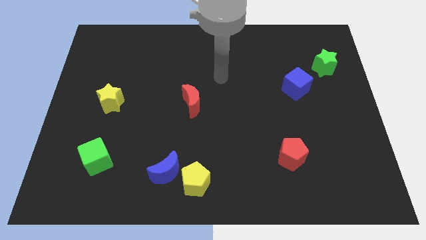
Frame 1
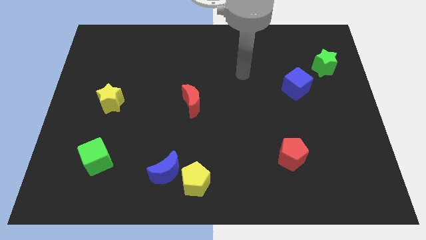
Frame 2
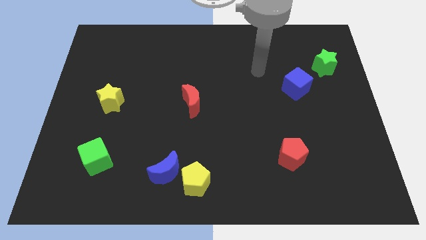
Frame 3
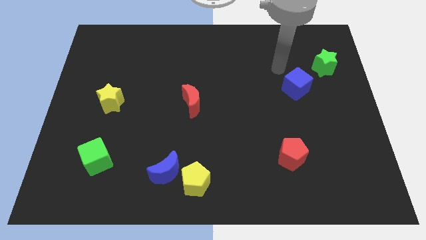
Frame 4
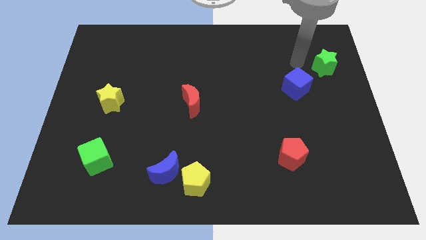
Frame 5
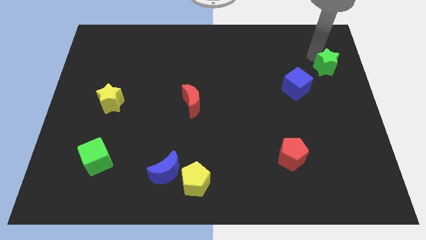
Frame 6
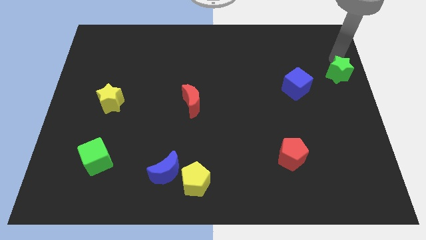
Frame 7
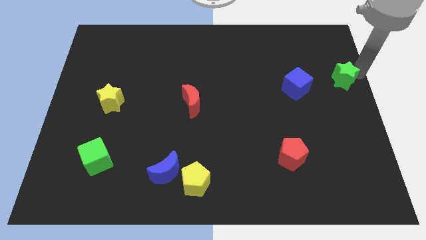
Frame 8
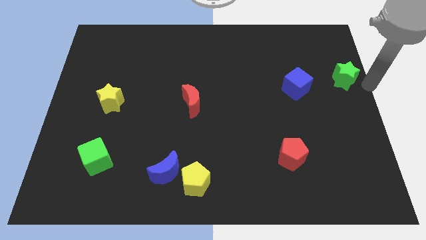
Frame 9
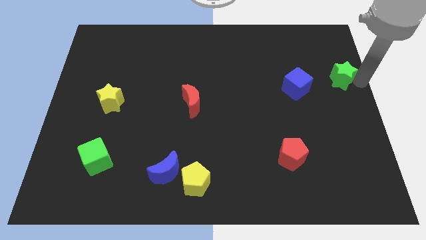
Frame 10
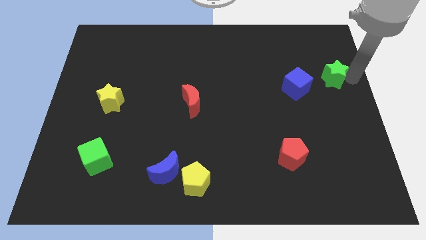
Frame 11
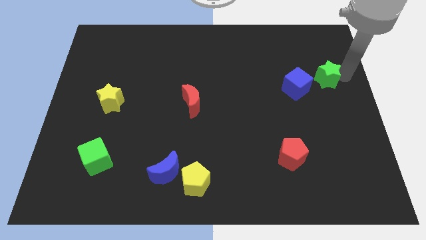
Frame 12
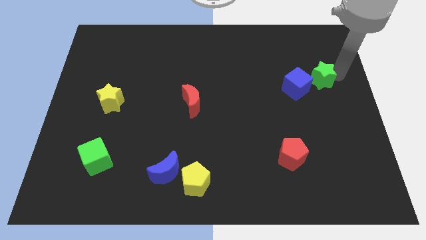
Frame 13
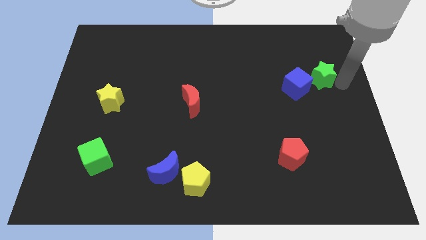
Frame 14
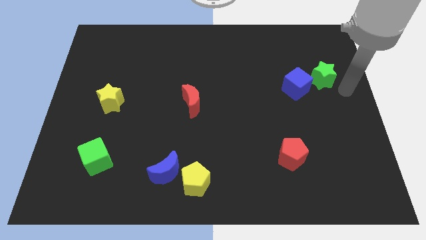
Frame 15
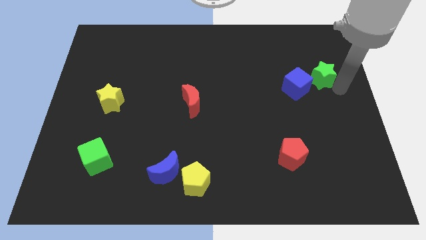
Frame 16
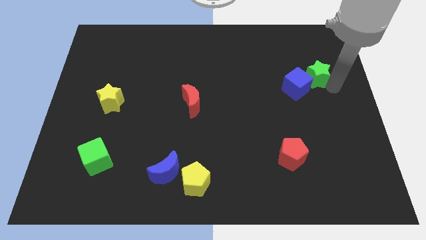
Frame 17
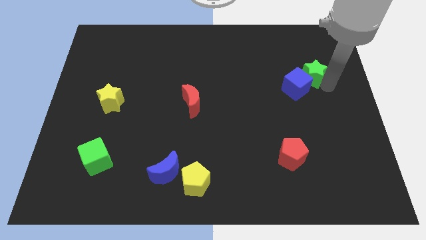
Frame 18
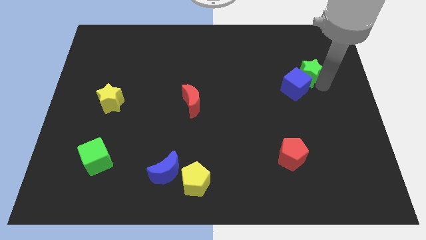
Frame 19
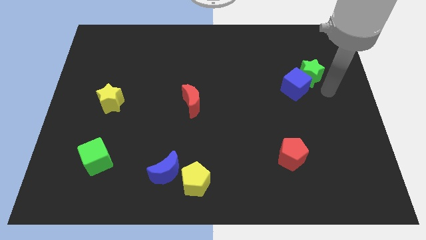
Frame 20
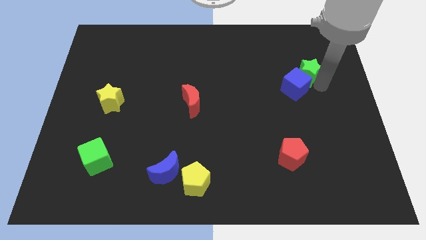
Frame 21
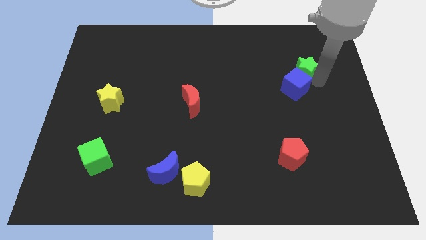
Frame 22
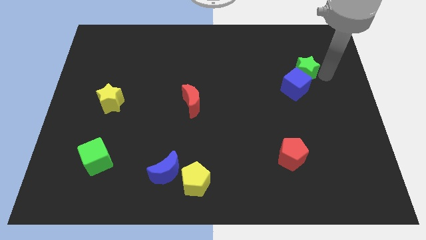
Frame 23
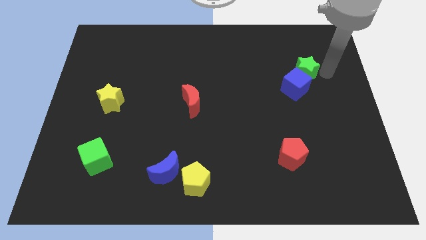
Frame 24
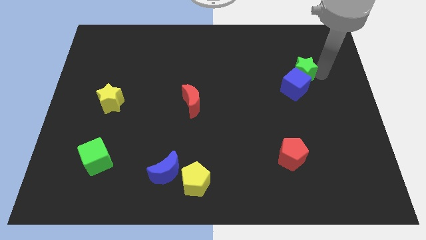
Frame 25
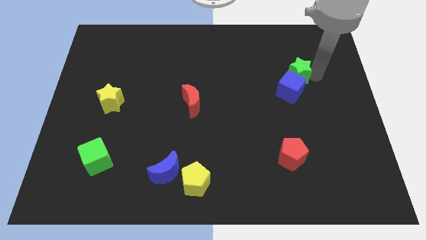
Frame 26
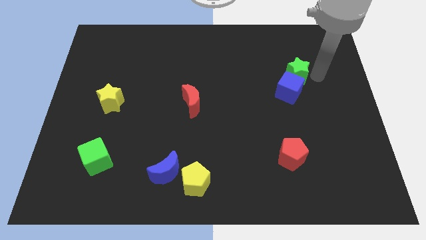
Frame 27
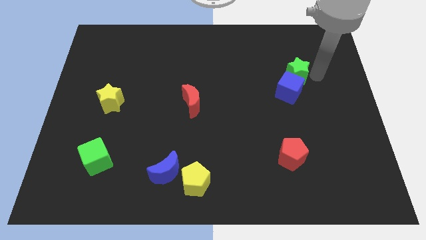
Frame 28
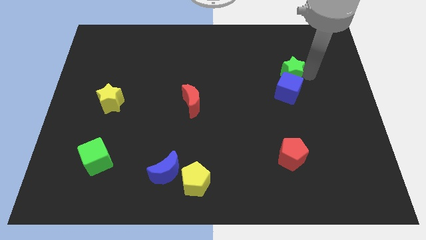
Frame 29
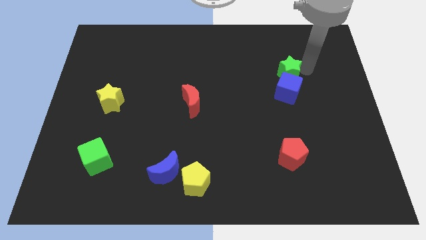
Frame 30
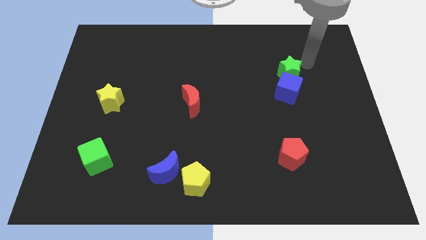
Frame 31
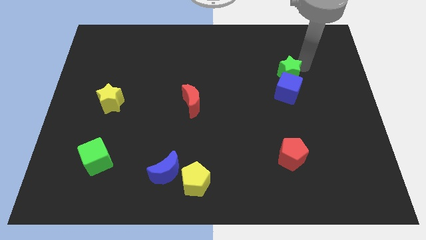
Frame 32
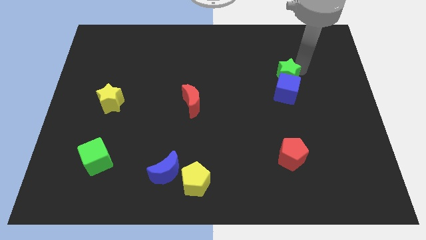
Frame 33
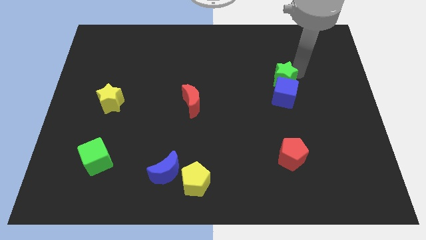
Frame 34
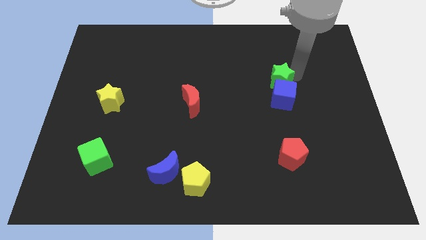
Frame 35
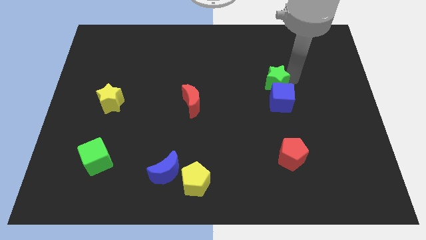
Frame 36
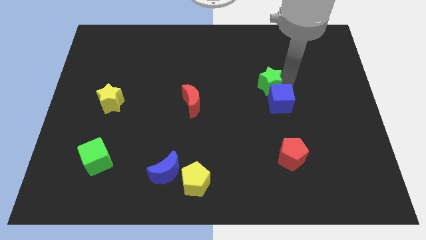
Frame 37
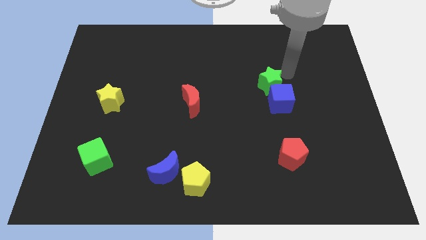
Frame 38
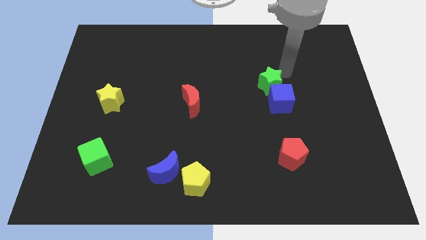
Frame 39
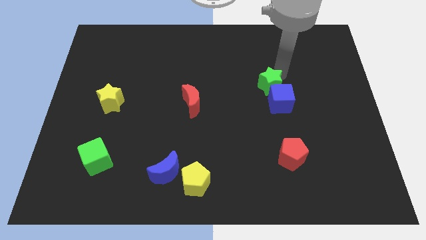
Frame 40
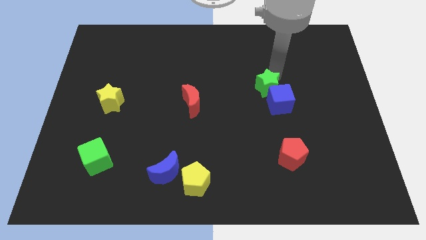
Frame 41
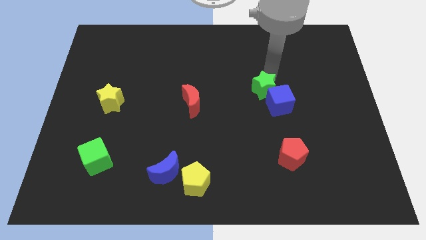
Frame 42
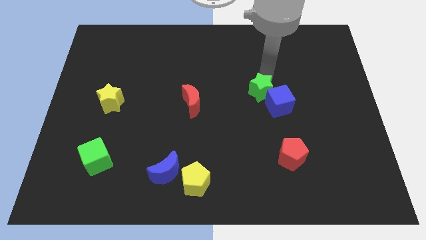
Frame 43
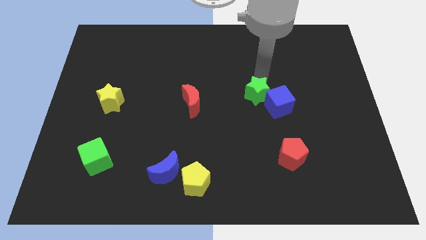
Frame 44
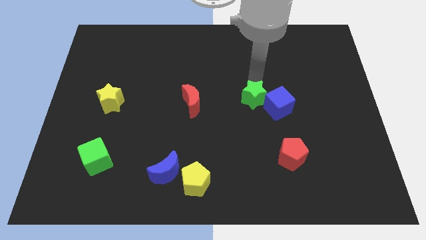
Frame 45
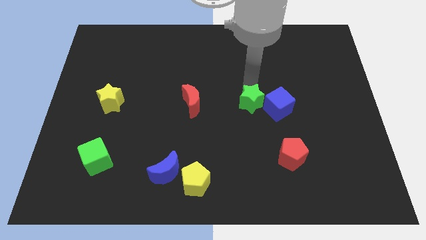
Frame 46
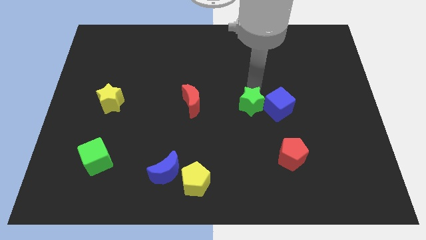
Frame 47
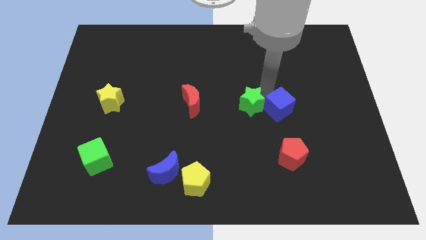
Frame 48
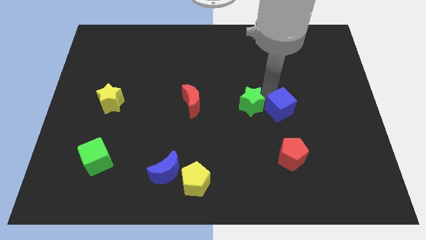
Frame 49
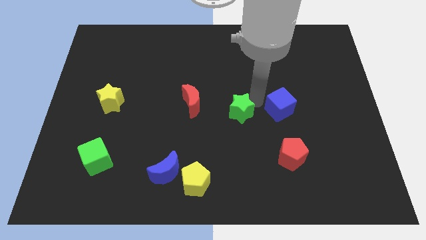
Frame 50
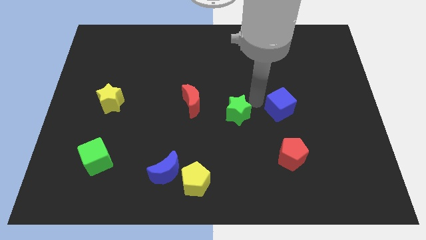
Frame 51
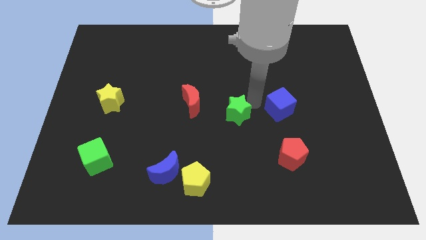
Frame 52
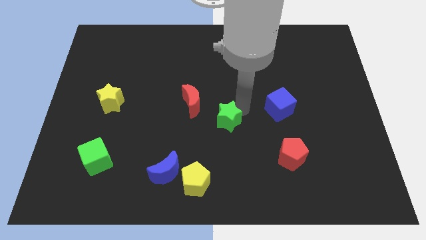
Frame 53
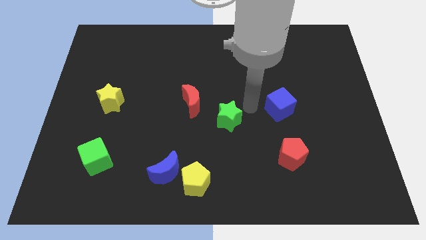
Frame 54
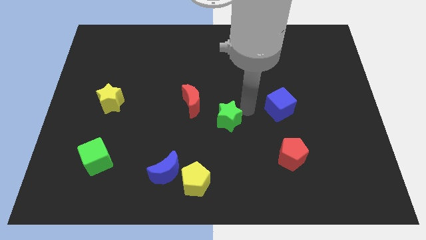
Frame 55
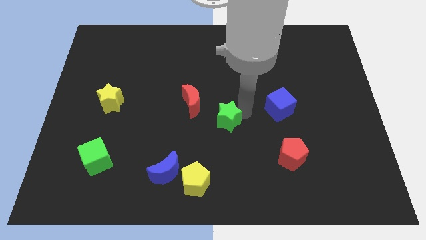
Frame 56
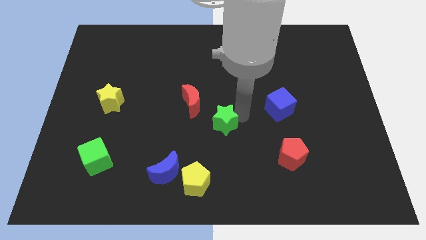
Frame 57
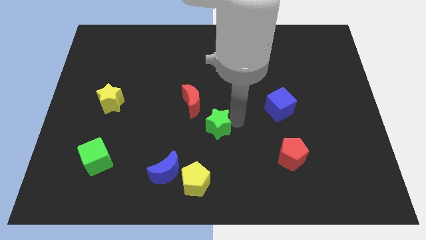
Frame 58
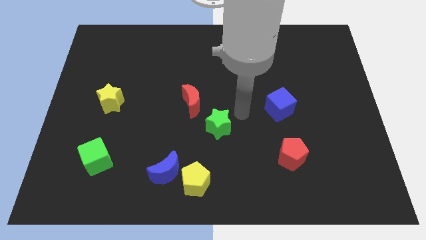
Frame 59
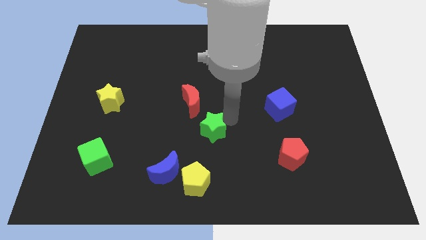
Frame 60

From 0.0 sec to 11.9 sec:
move the green star below the red moon
